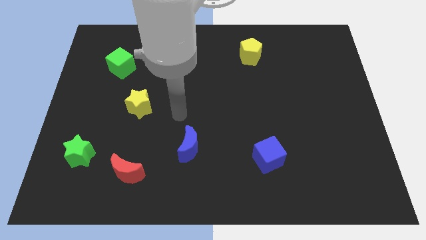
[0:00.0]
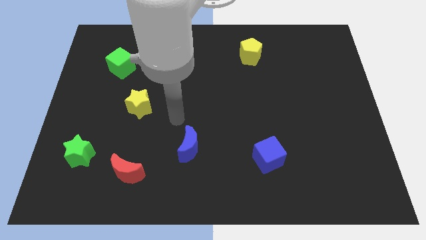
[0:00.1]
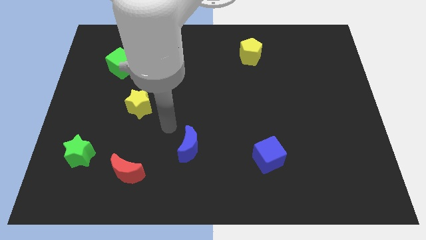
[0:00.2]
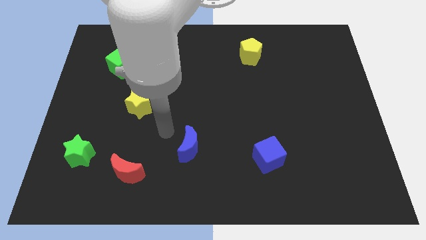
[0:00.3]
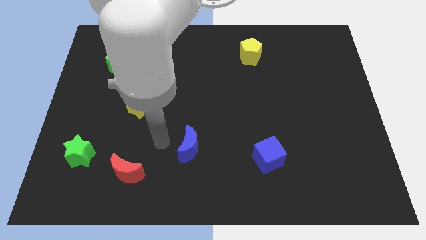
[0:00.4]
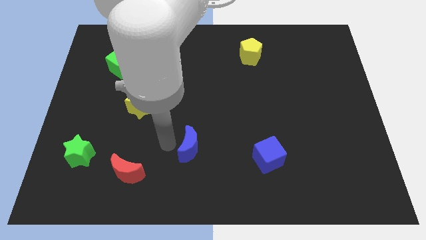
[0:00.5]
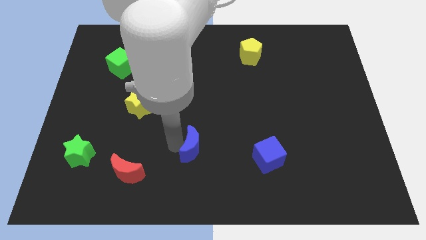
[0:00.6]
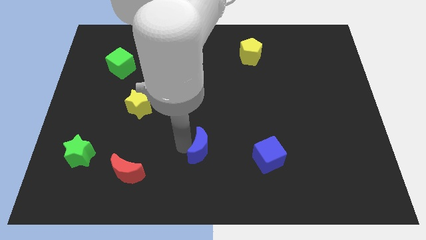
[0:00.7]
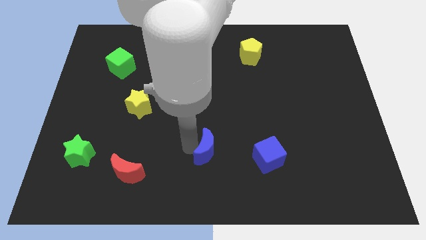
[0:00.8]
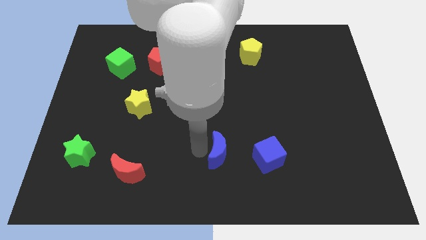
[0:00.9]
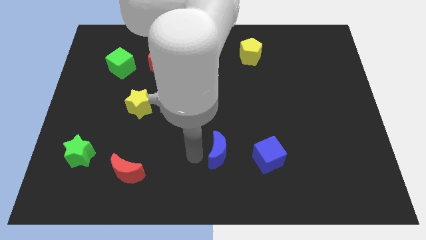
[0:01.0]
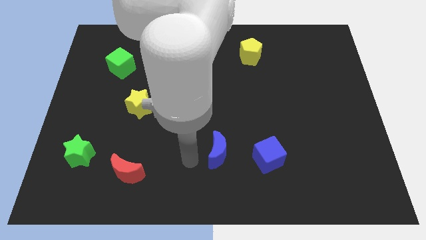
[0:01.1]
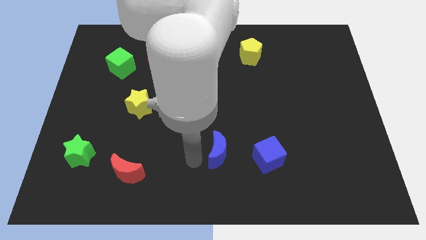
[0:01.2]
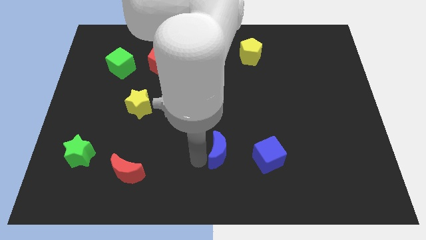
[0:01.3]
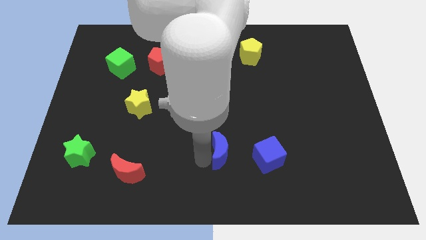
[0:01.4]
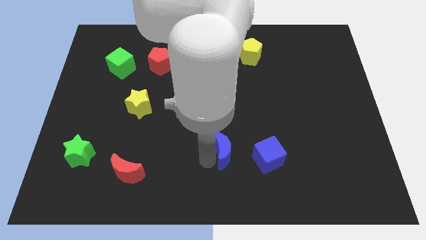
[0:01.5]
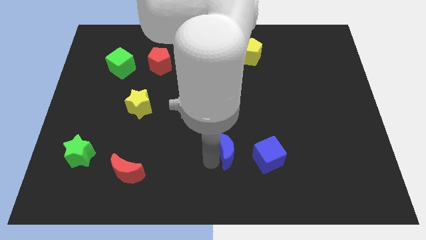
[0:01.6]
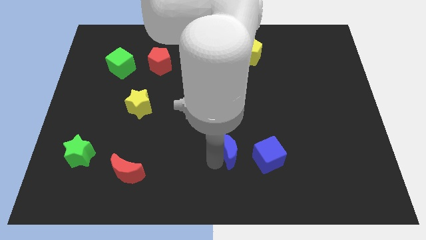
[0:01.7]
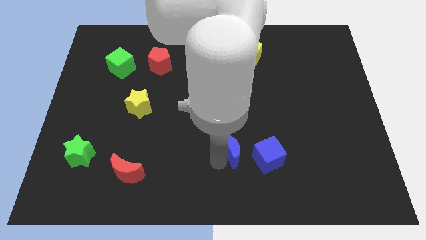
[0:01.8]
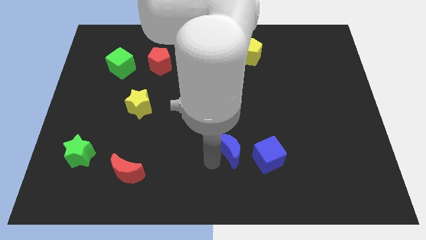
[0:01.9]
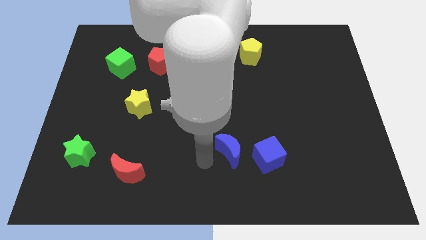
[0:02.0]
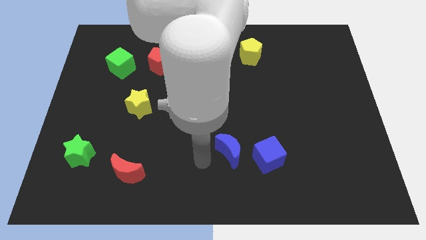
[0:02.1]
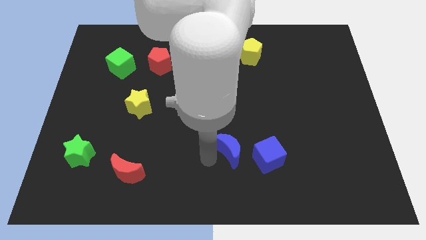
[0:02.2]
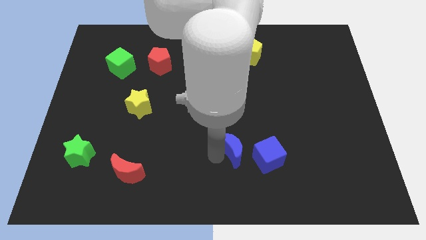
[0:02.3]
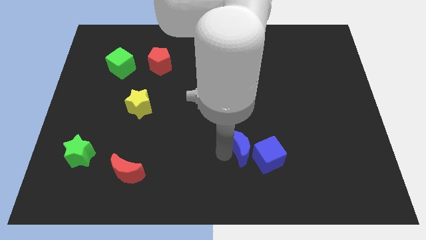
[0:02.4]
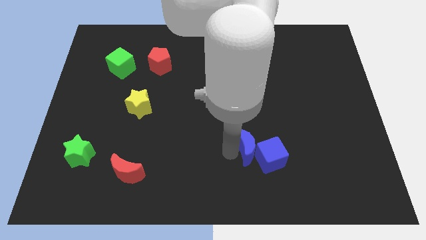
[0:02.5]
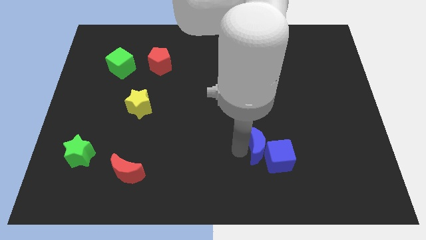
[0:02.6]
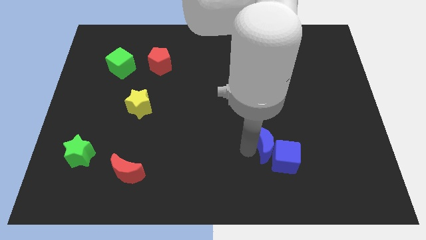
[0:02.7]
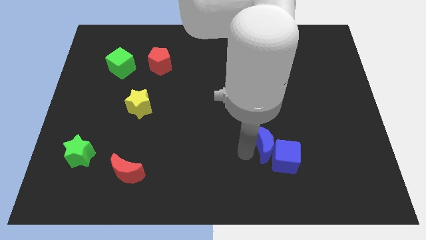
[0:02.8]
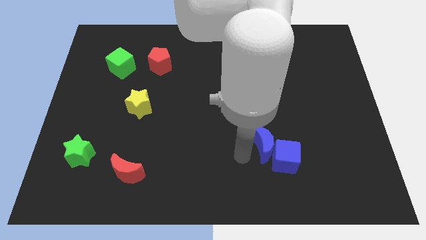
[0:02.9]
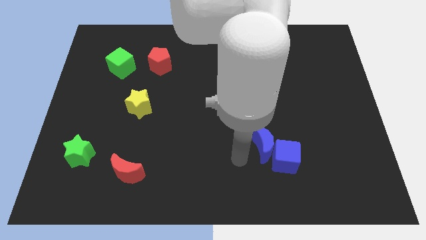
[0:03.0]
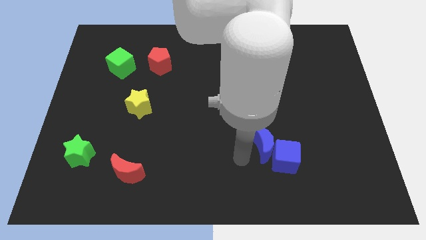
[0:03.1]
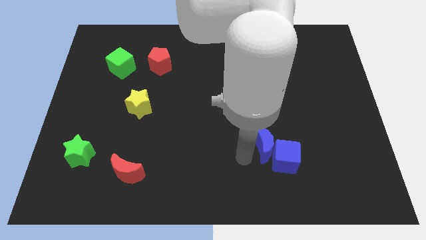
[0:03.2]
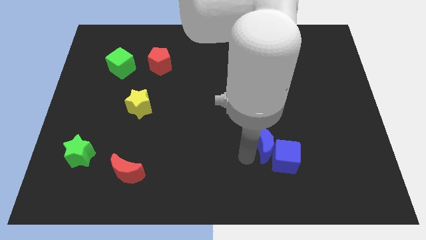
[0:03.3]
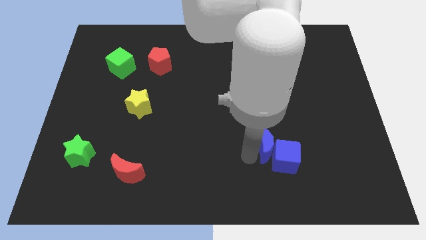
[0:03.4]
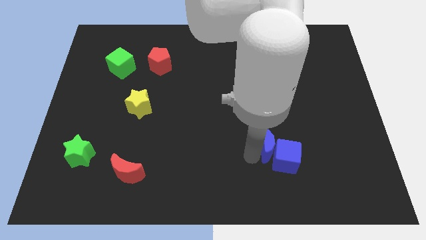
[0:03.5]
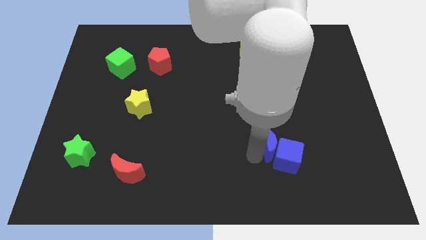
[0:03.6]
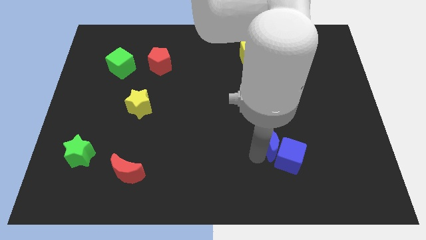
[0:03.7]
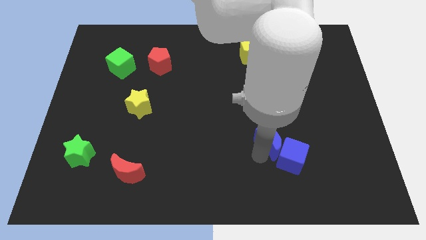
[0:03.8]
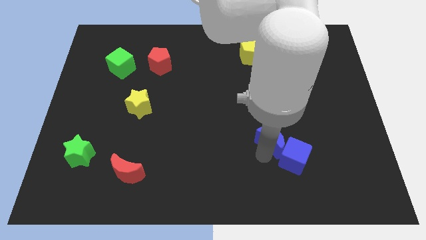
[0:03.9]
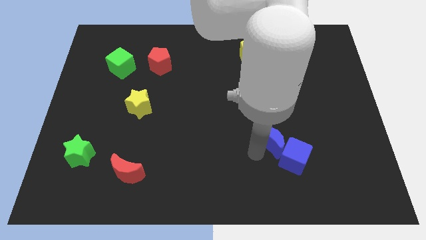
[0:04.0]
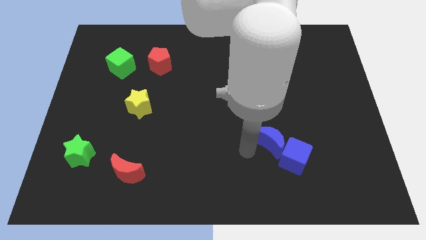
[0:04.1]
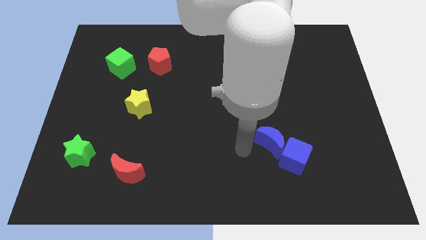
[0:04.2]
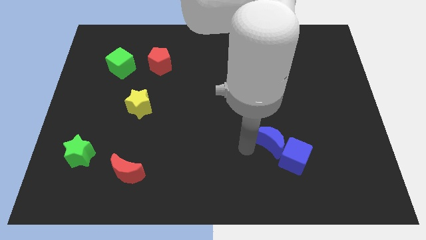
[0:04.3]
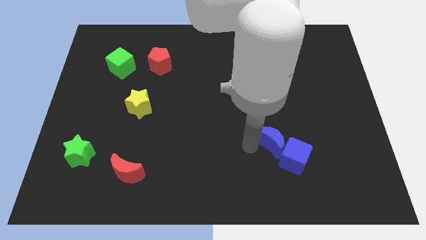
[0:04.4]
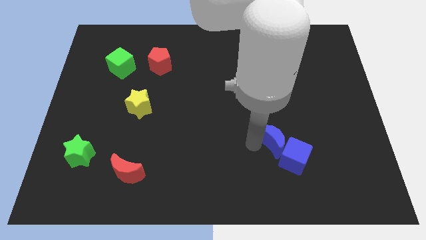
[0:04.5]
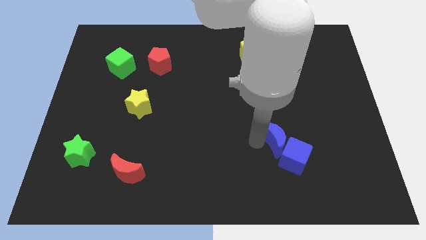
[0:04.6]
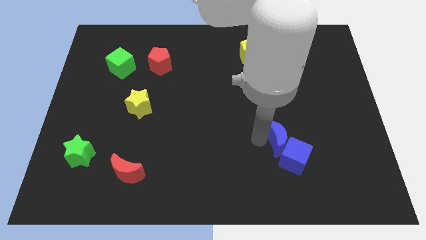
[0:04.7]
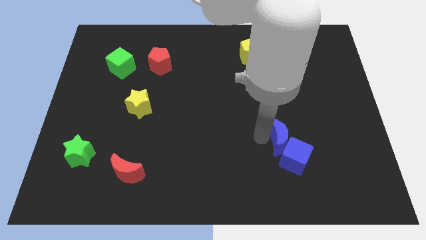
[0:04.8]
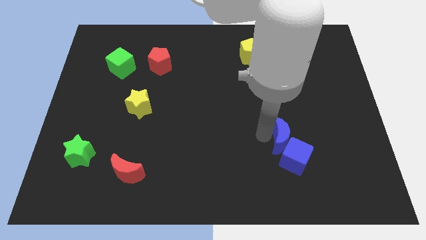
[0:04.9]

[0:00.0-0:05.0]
slide the blue moon right

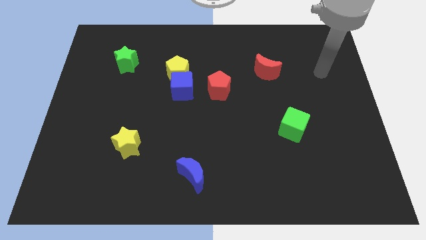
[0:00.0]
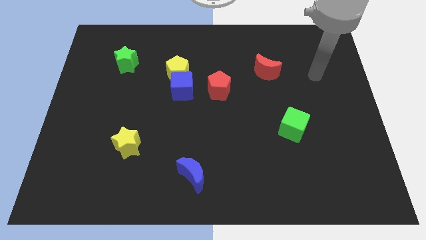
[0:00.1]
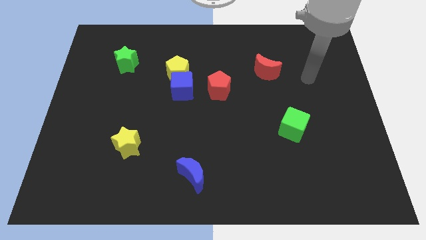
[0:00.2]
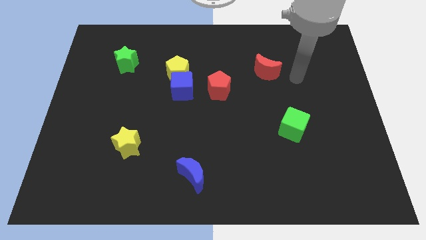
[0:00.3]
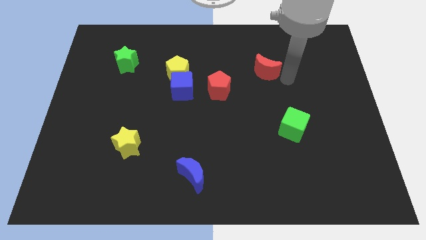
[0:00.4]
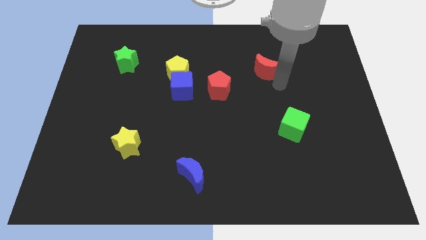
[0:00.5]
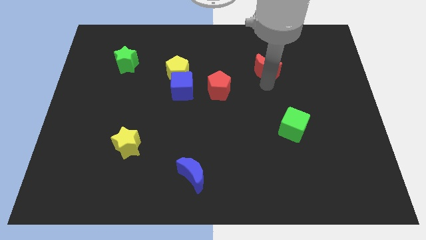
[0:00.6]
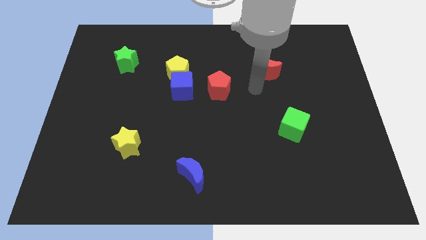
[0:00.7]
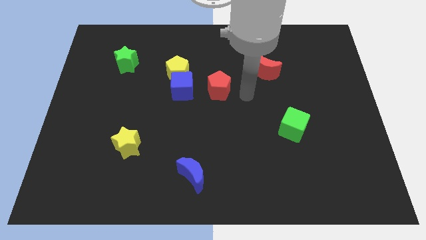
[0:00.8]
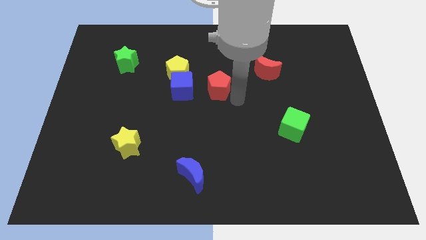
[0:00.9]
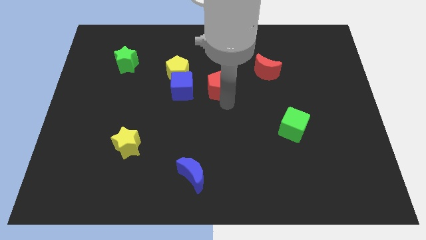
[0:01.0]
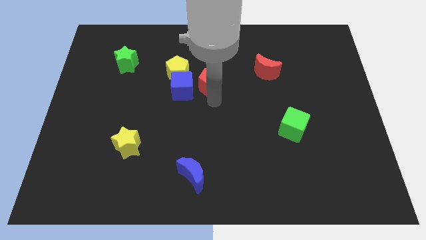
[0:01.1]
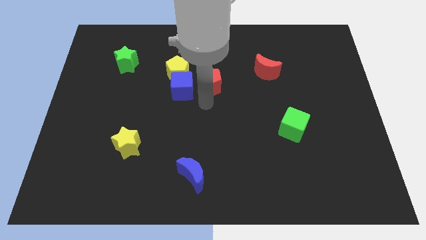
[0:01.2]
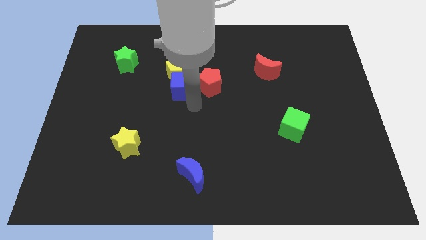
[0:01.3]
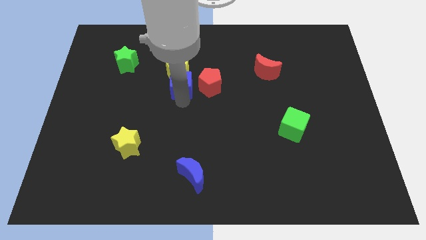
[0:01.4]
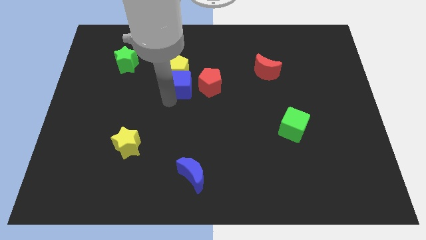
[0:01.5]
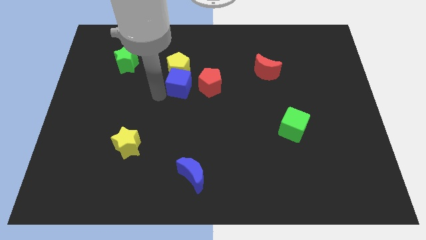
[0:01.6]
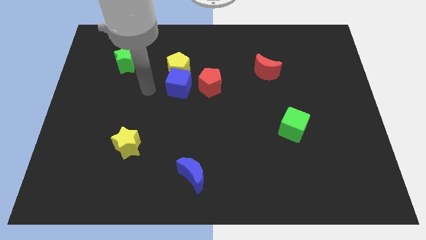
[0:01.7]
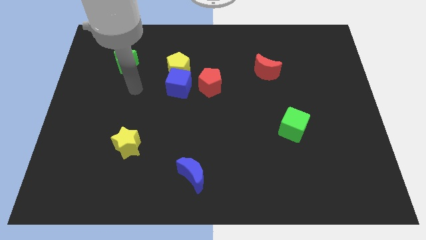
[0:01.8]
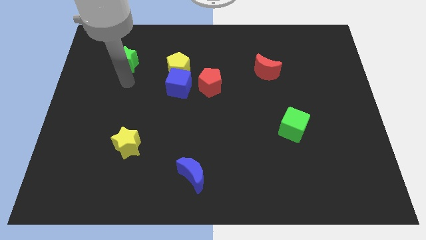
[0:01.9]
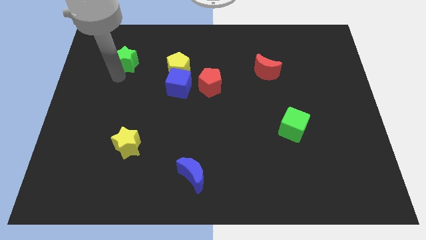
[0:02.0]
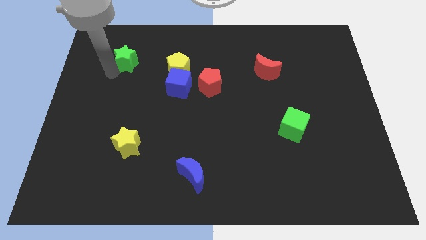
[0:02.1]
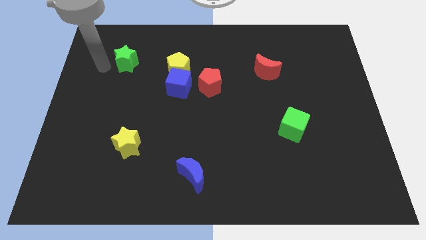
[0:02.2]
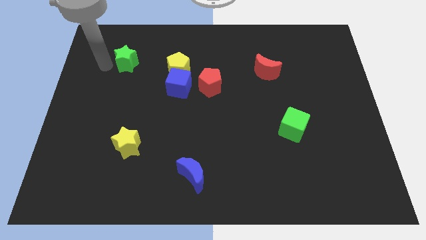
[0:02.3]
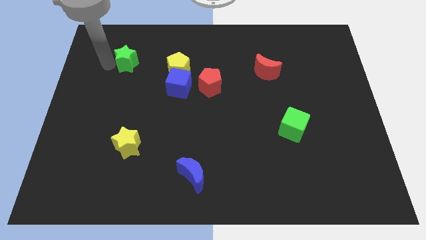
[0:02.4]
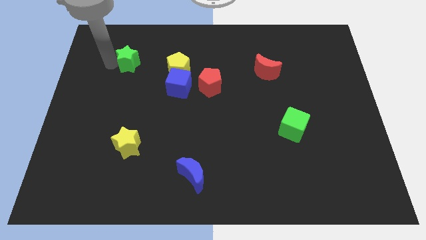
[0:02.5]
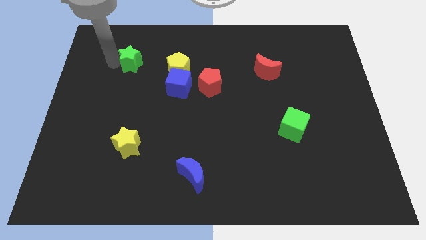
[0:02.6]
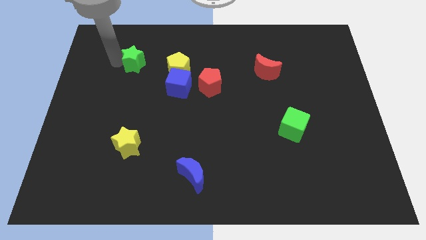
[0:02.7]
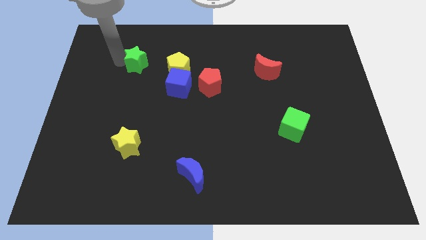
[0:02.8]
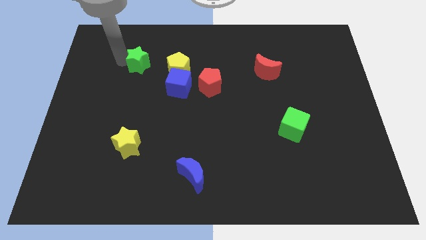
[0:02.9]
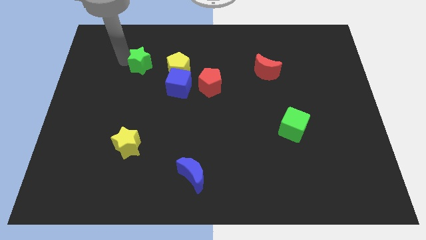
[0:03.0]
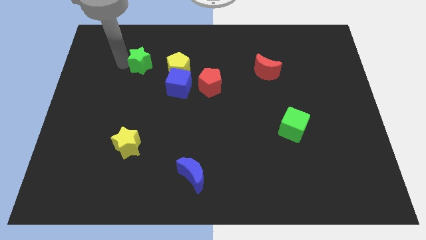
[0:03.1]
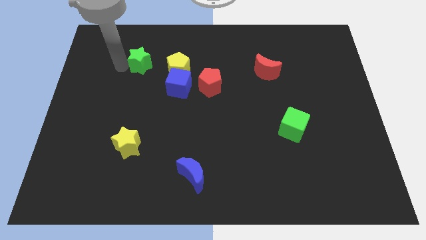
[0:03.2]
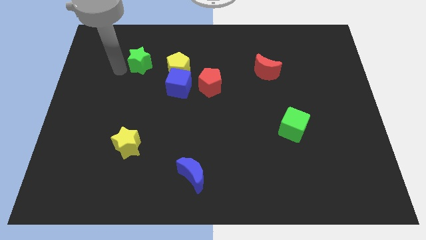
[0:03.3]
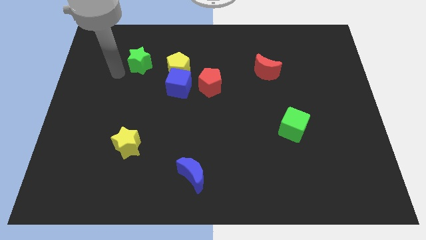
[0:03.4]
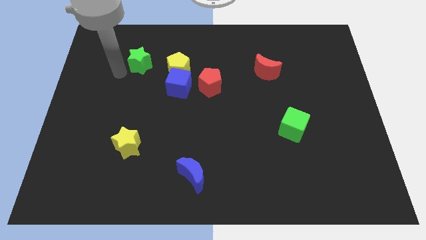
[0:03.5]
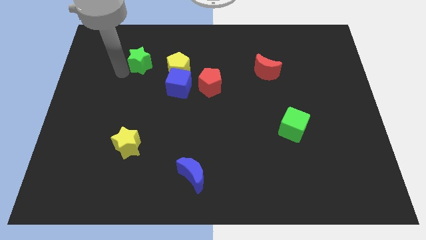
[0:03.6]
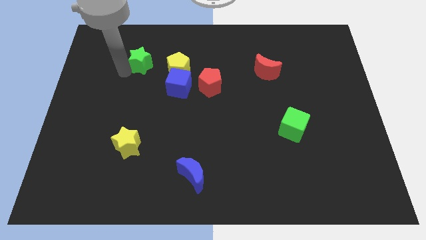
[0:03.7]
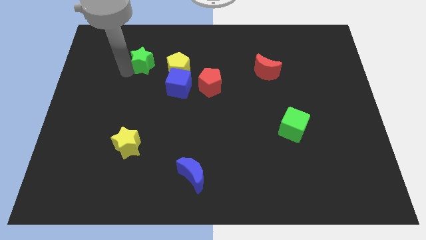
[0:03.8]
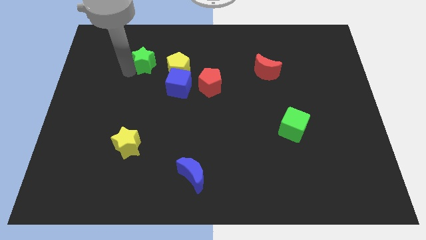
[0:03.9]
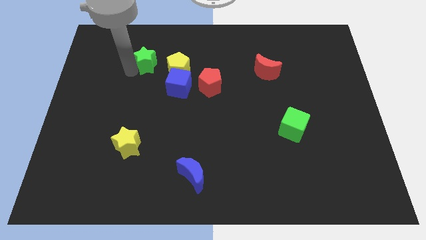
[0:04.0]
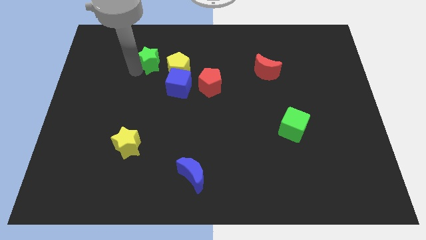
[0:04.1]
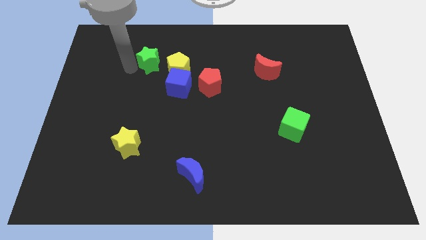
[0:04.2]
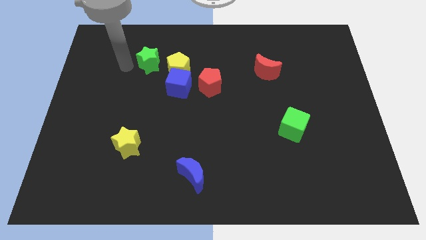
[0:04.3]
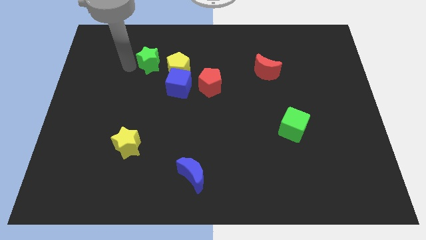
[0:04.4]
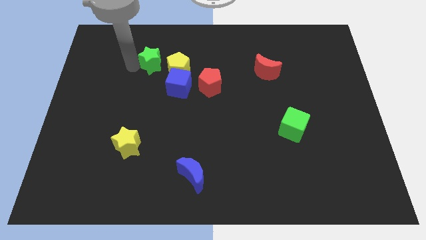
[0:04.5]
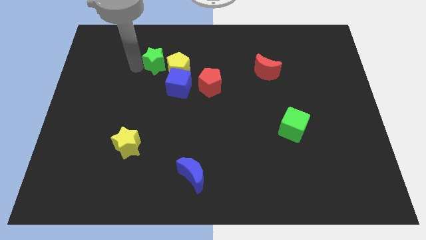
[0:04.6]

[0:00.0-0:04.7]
push the green star right a bit
